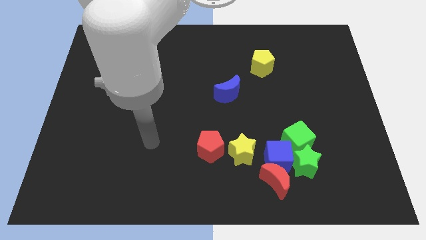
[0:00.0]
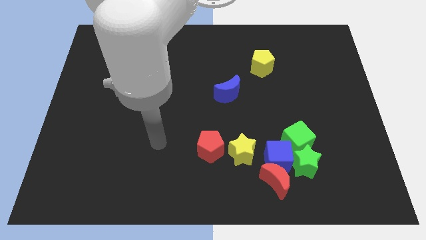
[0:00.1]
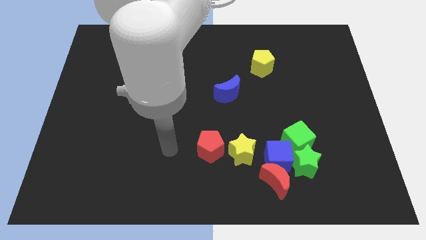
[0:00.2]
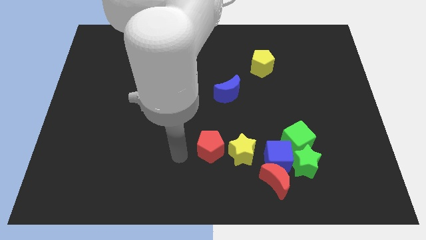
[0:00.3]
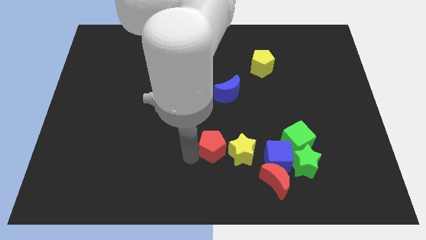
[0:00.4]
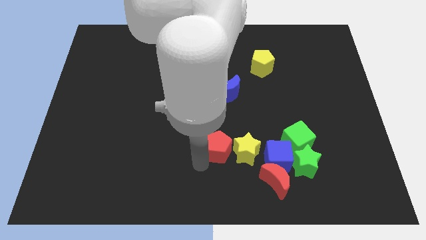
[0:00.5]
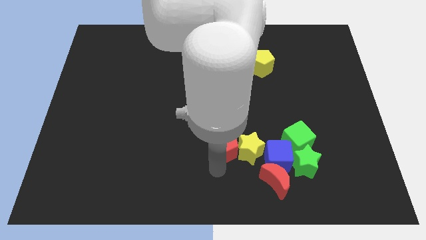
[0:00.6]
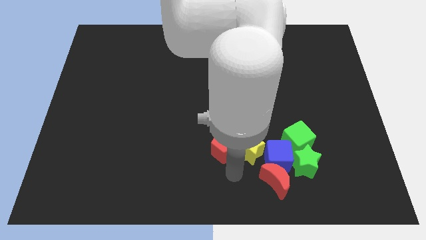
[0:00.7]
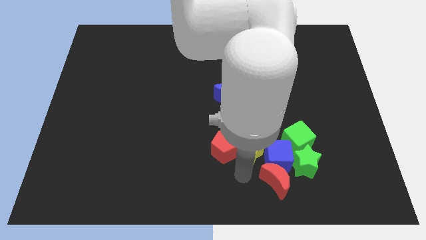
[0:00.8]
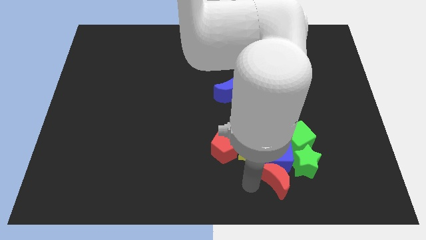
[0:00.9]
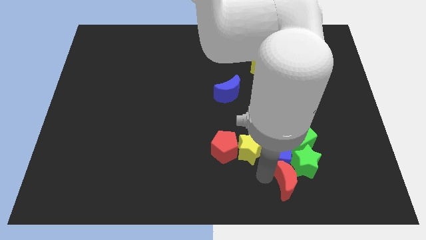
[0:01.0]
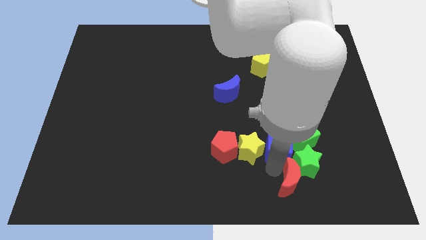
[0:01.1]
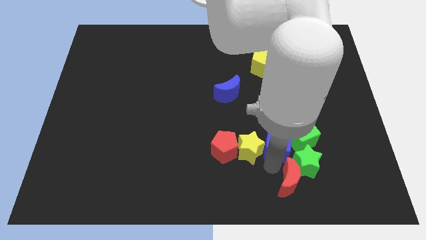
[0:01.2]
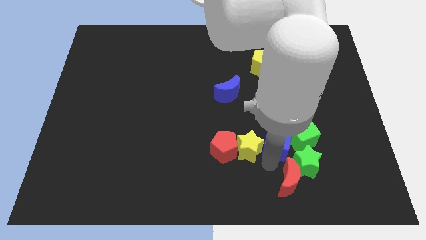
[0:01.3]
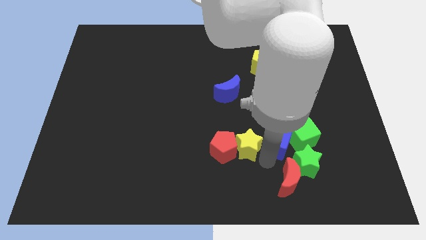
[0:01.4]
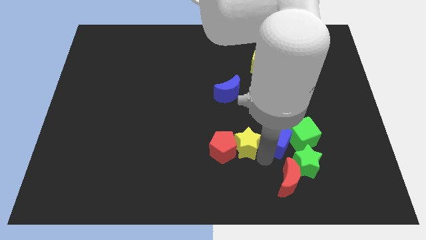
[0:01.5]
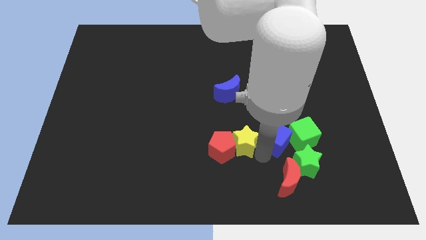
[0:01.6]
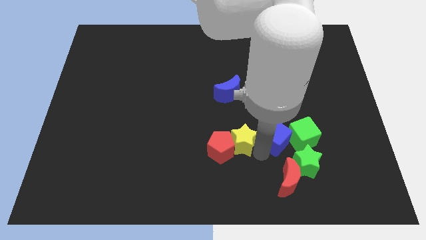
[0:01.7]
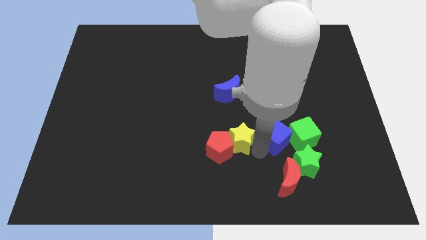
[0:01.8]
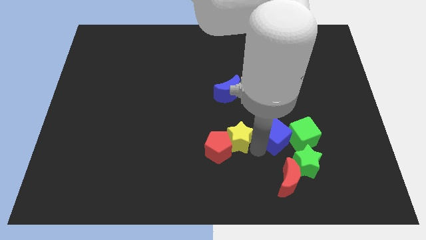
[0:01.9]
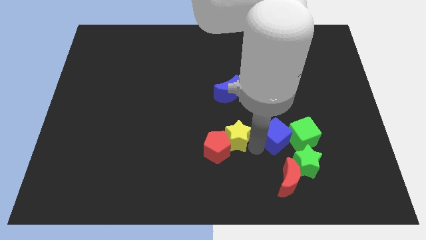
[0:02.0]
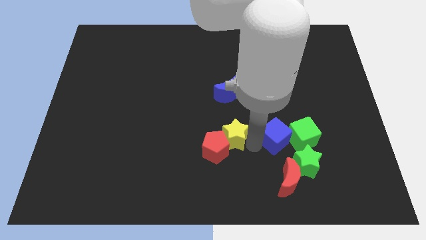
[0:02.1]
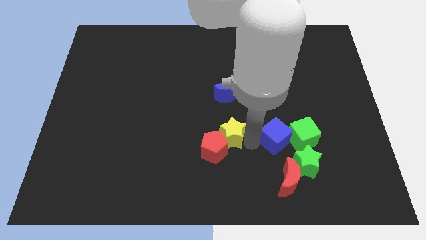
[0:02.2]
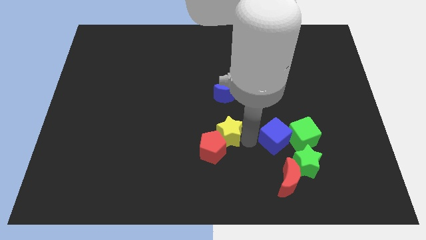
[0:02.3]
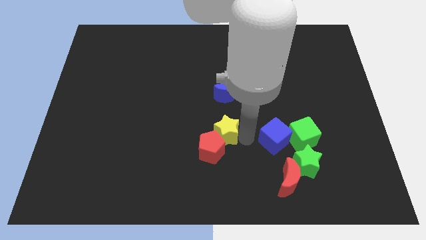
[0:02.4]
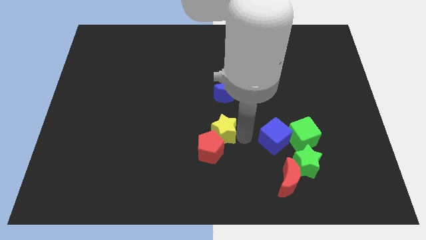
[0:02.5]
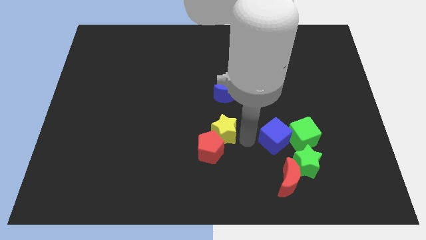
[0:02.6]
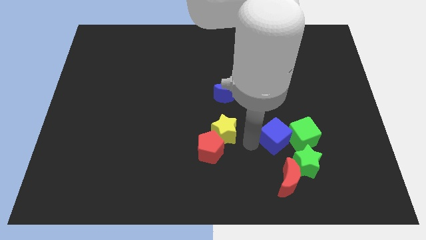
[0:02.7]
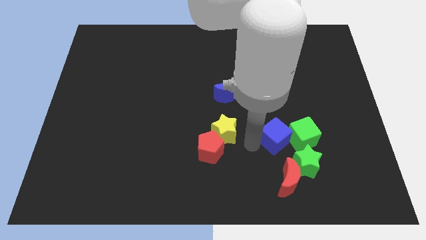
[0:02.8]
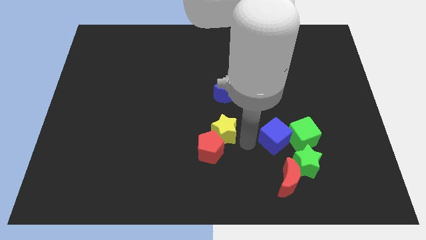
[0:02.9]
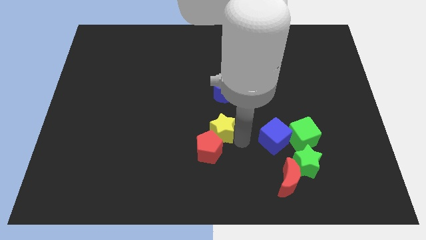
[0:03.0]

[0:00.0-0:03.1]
slide the yellow star up and to the left diagonally a bit

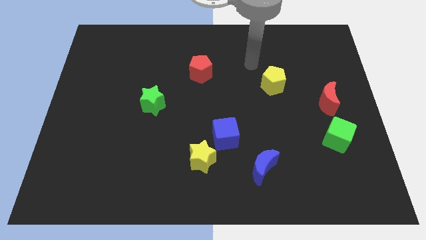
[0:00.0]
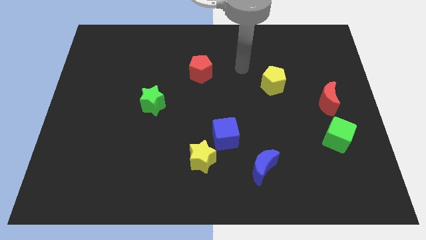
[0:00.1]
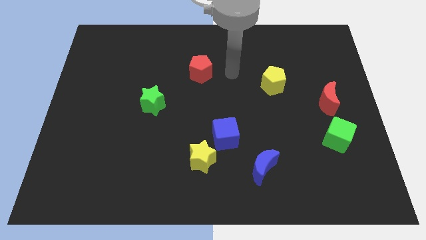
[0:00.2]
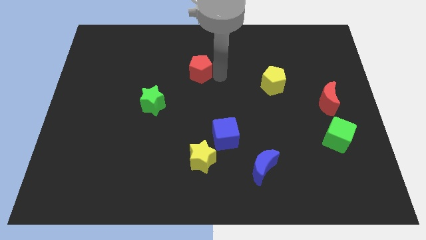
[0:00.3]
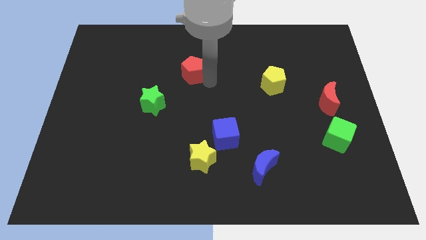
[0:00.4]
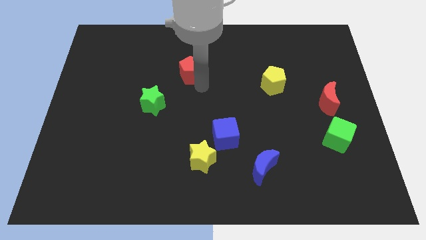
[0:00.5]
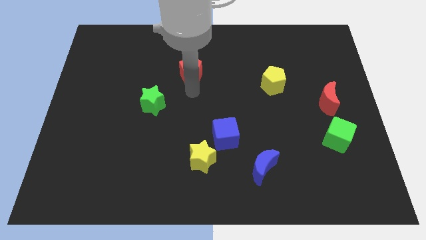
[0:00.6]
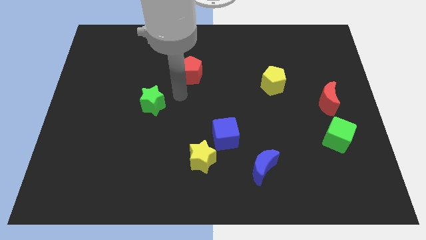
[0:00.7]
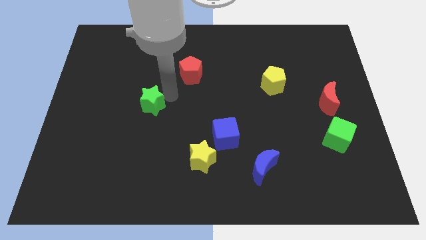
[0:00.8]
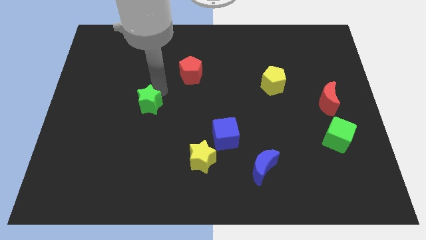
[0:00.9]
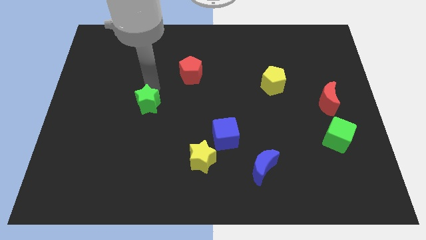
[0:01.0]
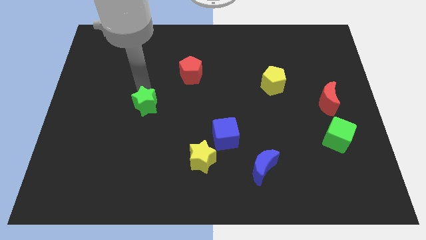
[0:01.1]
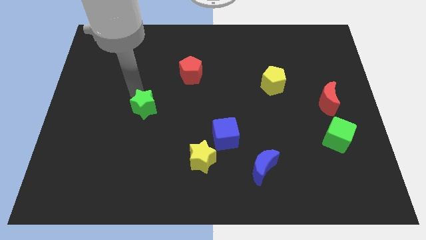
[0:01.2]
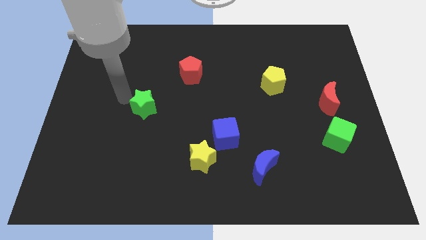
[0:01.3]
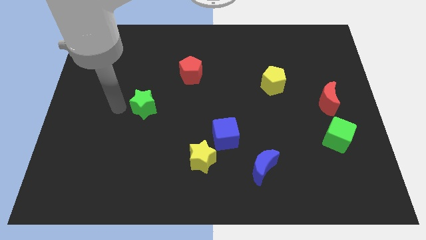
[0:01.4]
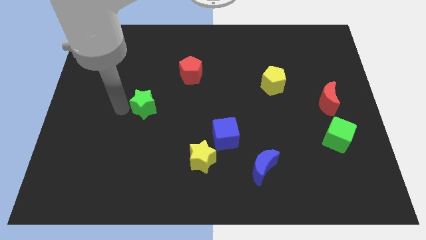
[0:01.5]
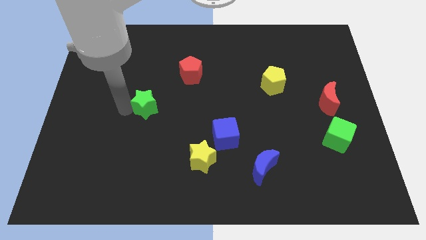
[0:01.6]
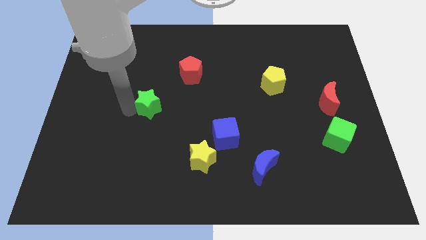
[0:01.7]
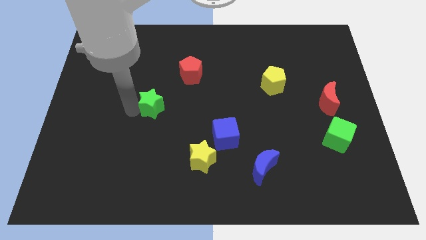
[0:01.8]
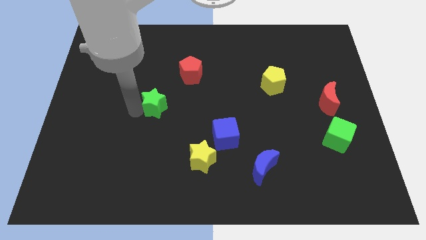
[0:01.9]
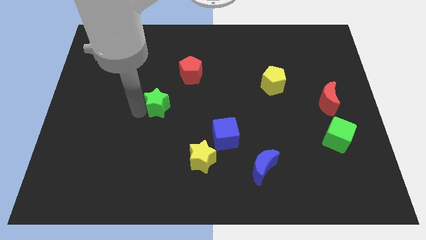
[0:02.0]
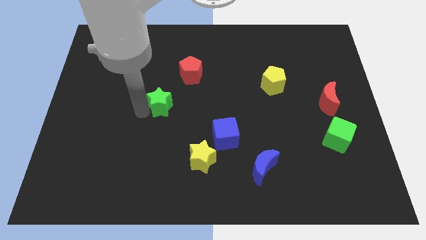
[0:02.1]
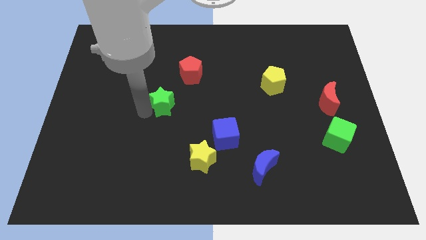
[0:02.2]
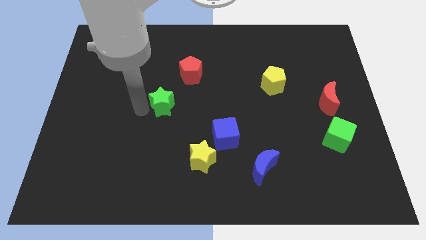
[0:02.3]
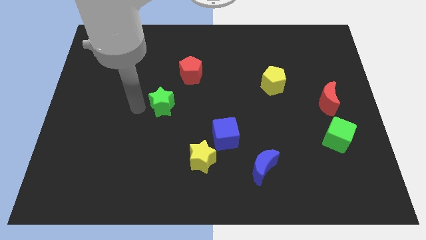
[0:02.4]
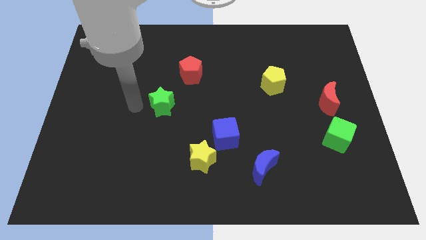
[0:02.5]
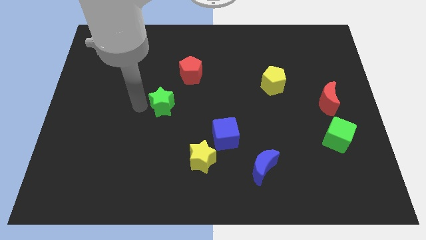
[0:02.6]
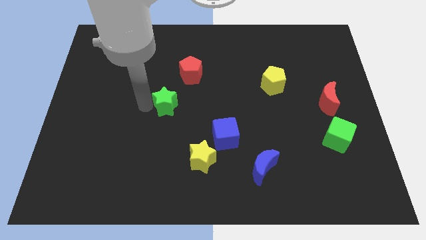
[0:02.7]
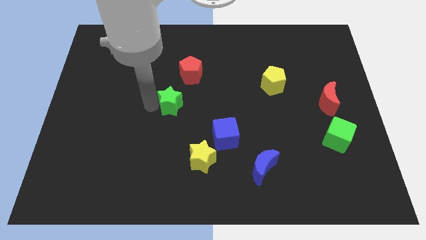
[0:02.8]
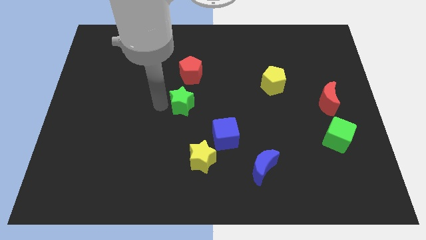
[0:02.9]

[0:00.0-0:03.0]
slightly slide the green star right

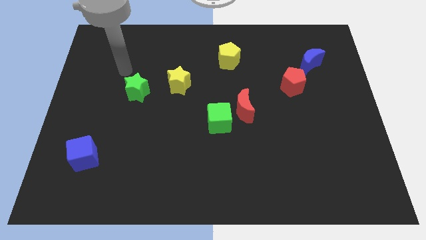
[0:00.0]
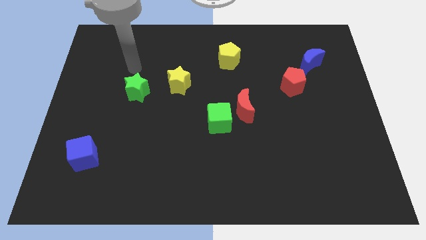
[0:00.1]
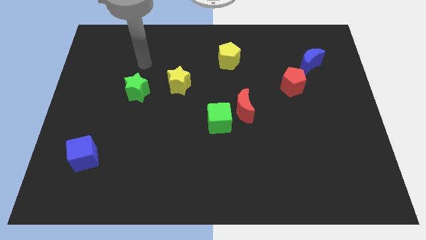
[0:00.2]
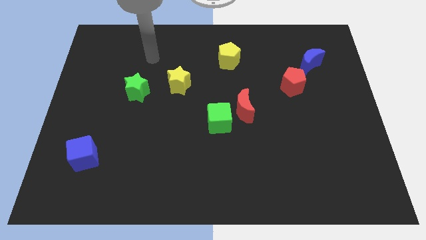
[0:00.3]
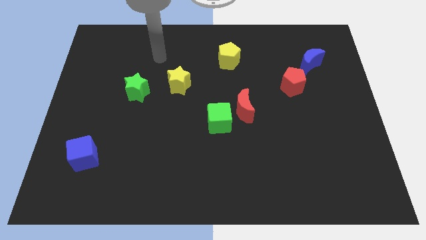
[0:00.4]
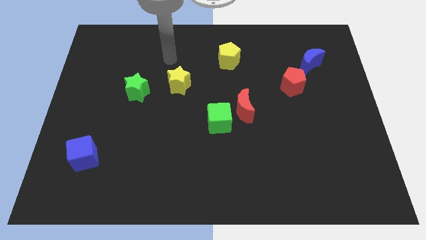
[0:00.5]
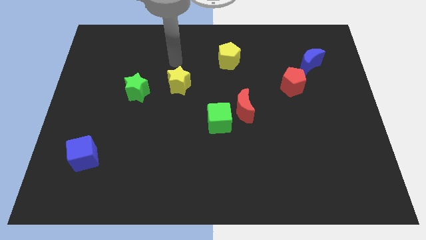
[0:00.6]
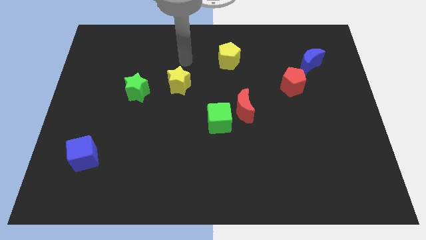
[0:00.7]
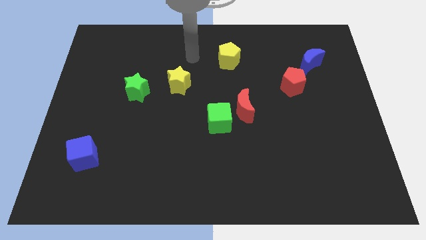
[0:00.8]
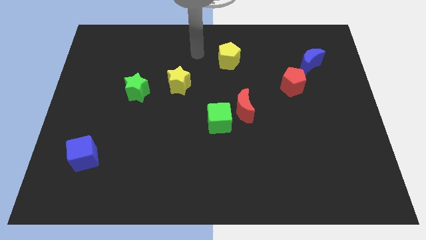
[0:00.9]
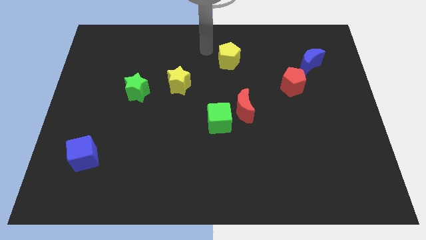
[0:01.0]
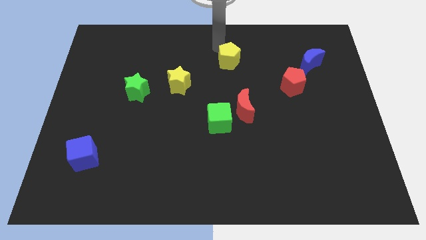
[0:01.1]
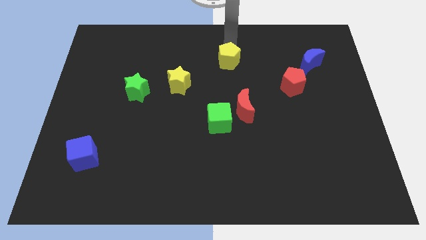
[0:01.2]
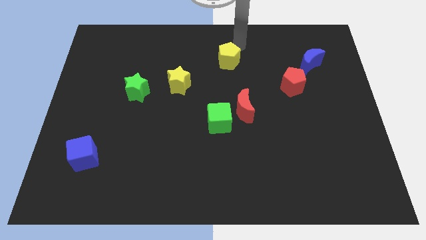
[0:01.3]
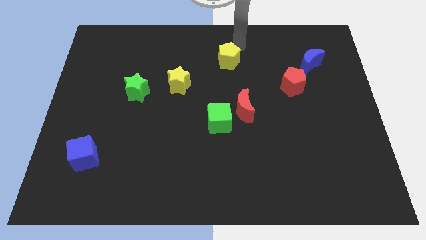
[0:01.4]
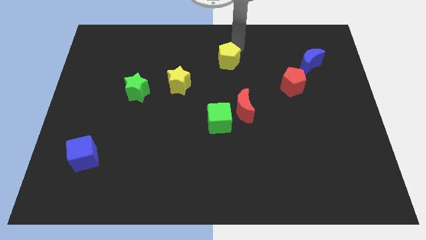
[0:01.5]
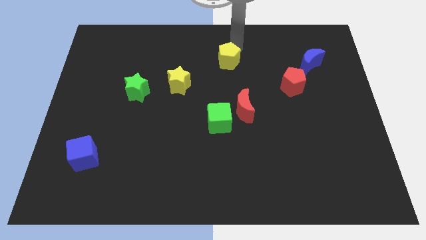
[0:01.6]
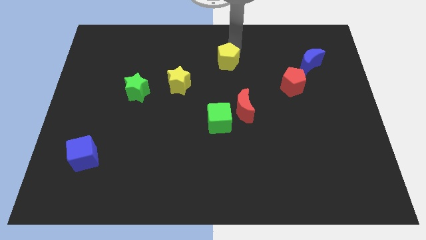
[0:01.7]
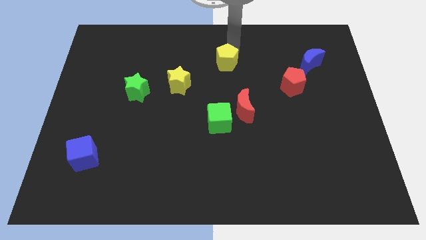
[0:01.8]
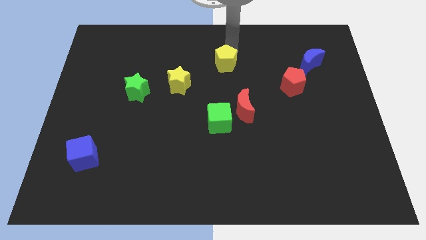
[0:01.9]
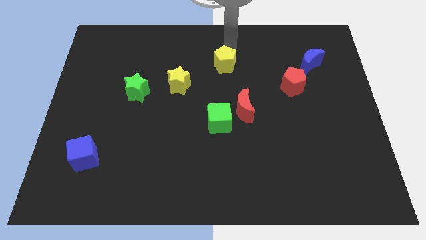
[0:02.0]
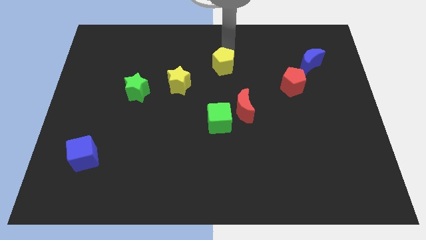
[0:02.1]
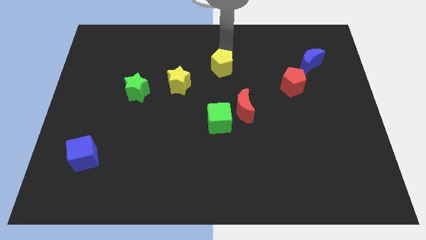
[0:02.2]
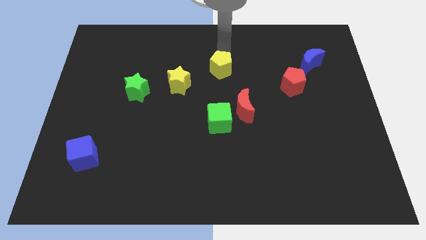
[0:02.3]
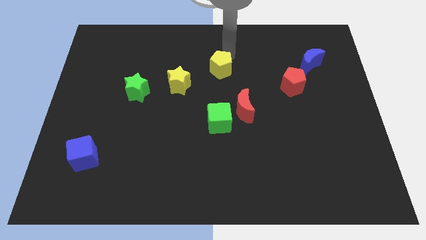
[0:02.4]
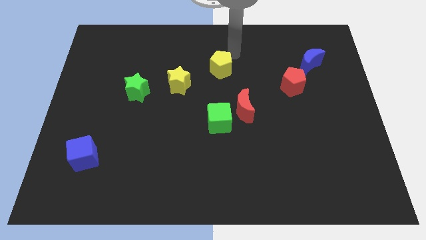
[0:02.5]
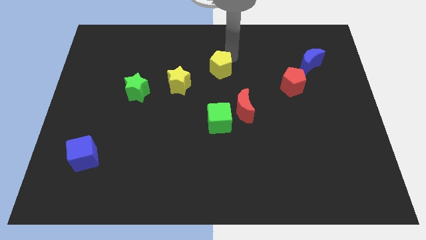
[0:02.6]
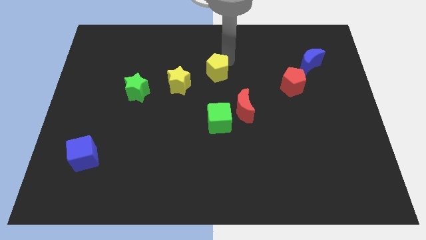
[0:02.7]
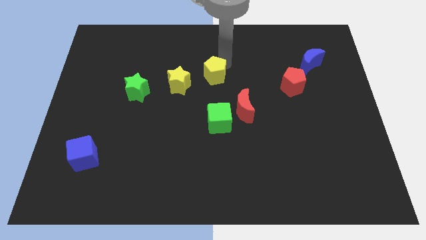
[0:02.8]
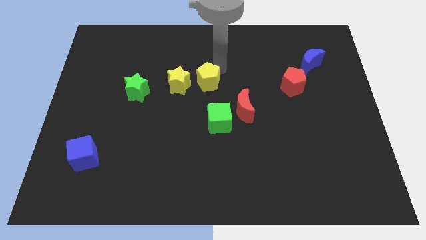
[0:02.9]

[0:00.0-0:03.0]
slide the yellow pentagon down and to the left somewhat
